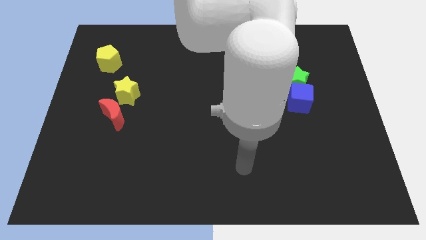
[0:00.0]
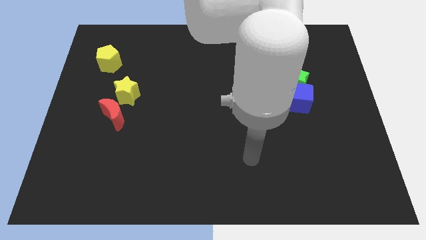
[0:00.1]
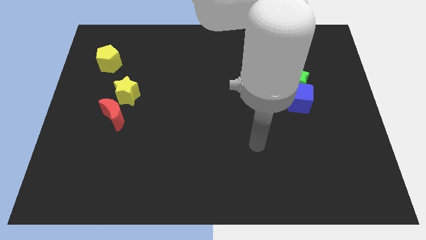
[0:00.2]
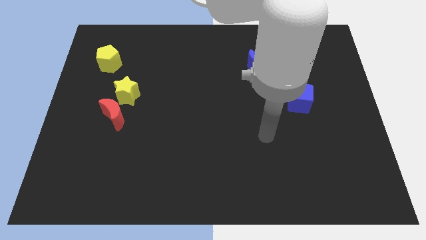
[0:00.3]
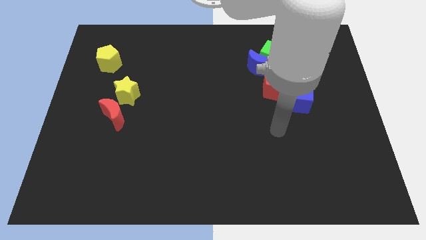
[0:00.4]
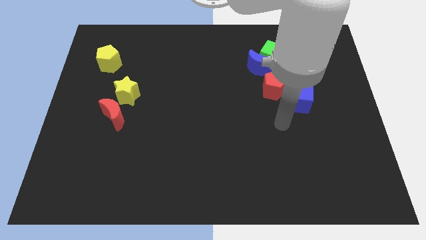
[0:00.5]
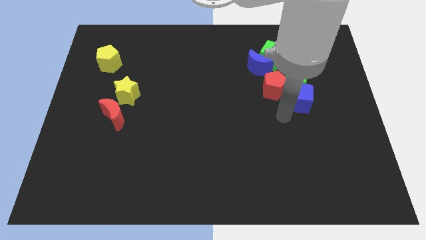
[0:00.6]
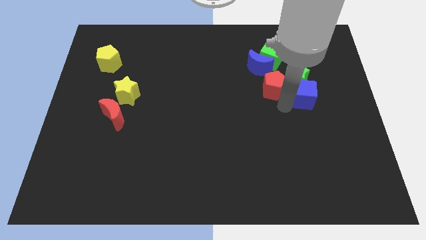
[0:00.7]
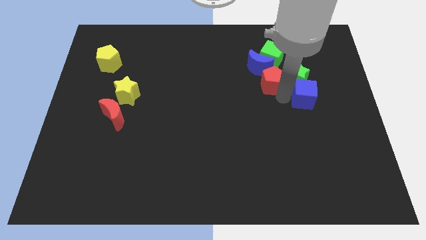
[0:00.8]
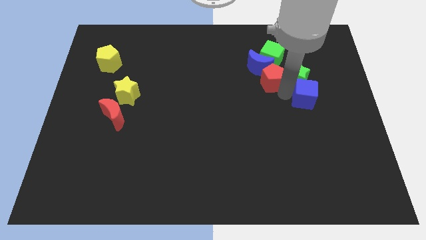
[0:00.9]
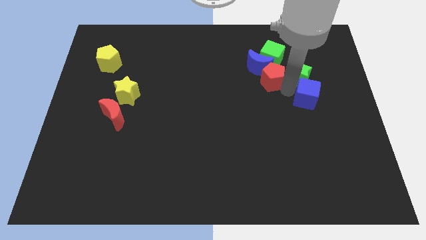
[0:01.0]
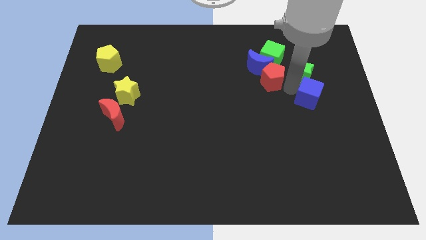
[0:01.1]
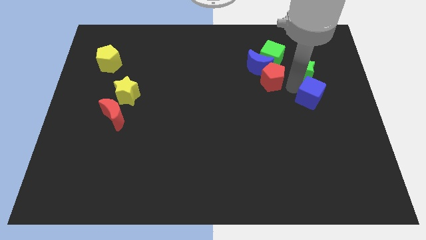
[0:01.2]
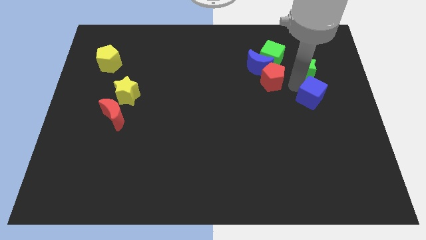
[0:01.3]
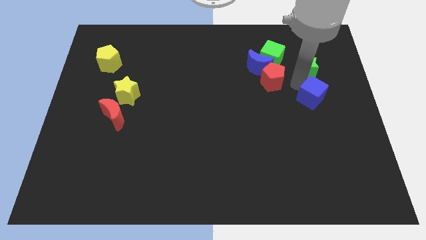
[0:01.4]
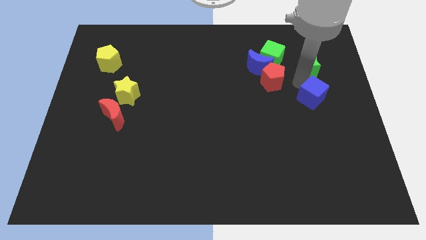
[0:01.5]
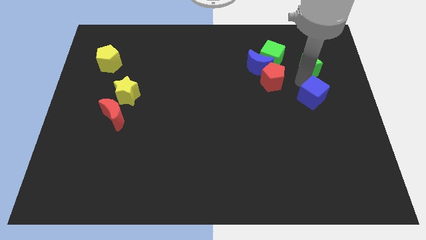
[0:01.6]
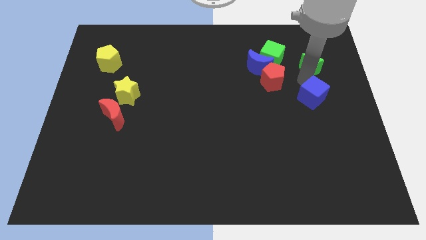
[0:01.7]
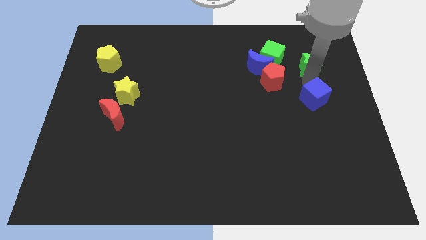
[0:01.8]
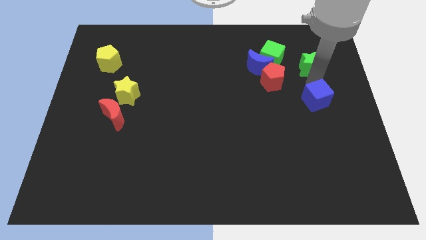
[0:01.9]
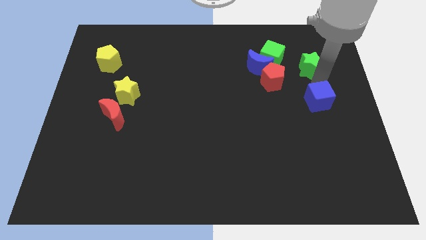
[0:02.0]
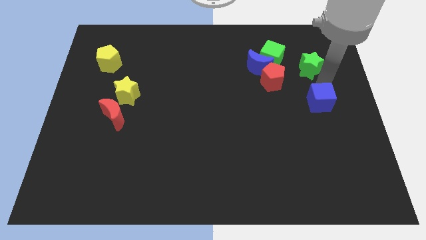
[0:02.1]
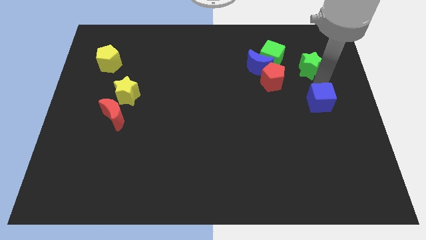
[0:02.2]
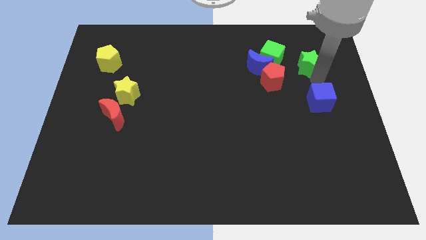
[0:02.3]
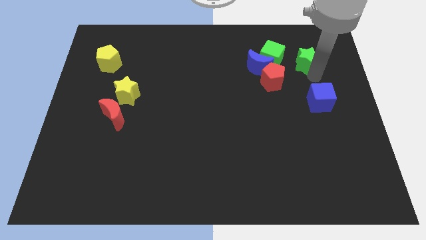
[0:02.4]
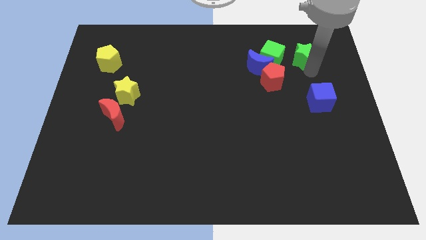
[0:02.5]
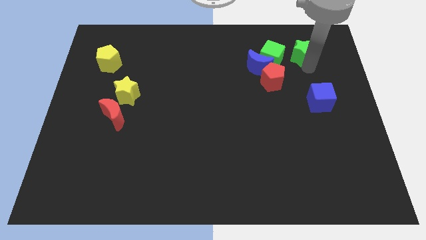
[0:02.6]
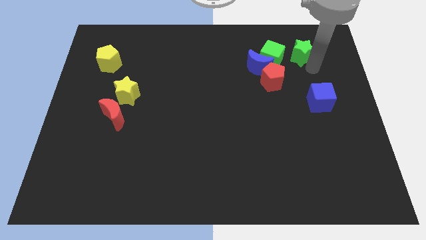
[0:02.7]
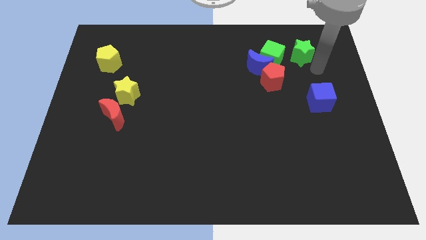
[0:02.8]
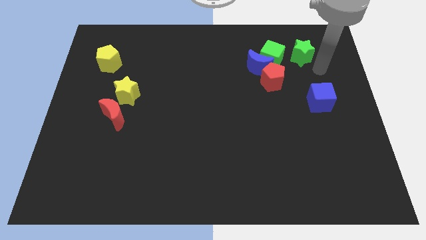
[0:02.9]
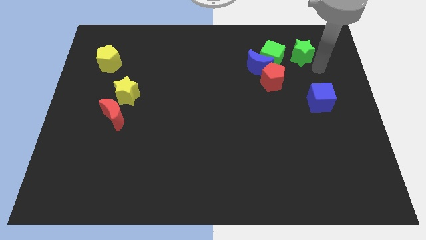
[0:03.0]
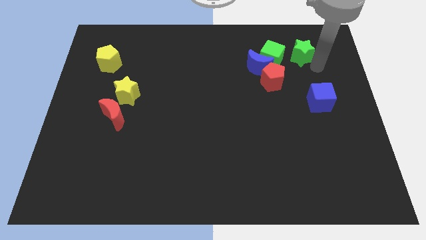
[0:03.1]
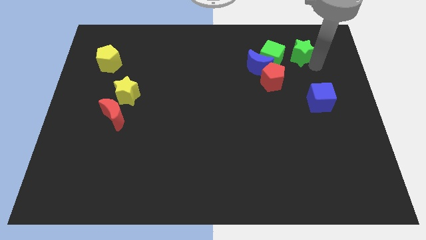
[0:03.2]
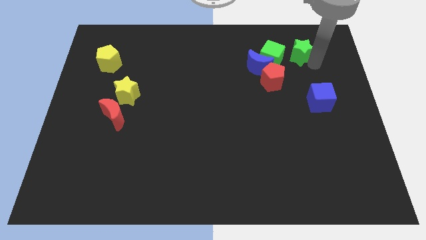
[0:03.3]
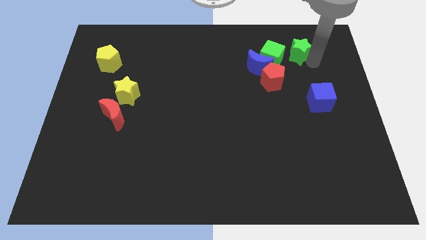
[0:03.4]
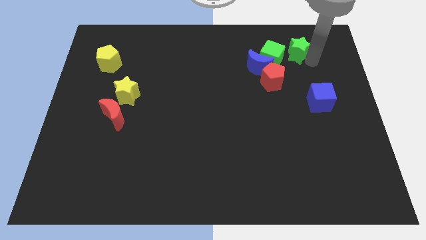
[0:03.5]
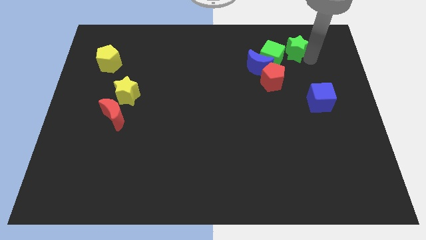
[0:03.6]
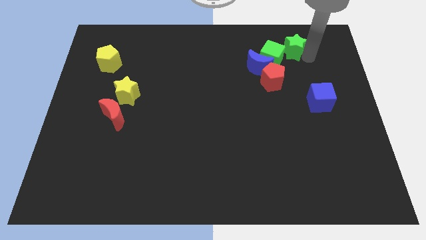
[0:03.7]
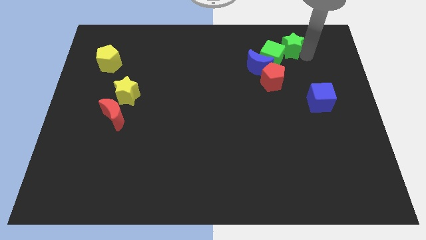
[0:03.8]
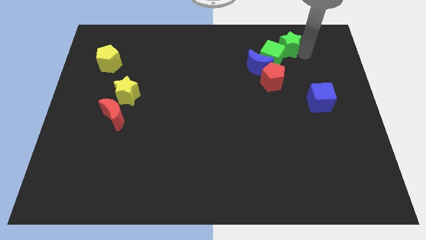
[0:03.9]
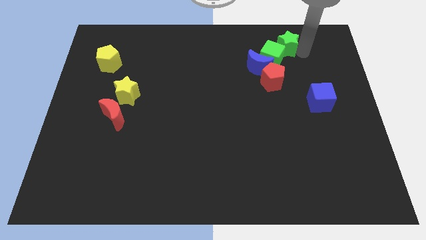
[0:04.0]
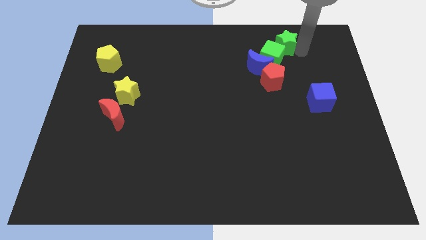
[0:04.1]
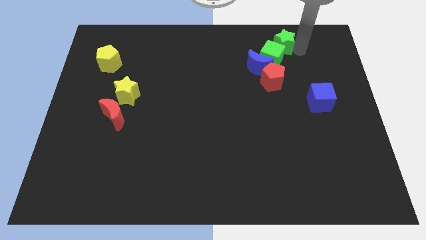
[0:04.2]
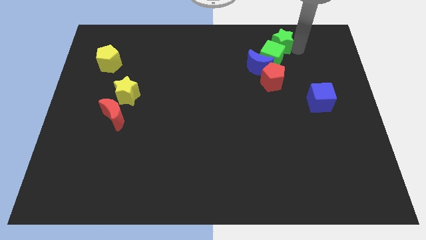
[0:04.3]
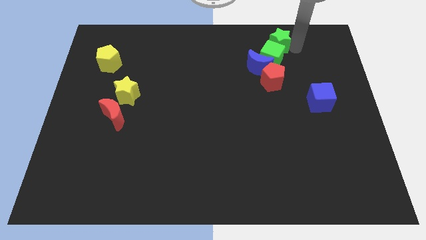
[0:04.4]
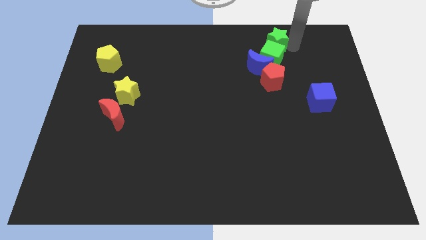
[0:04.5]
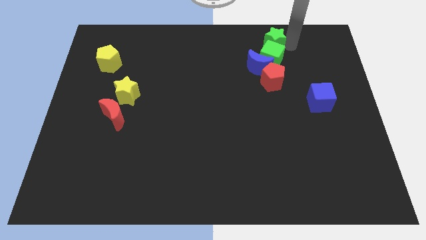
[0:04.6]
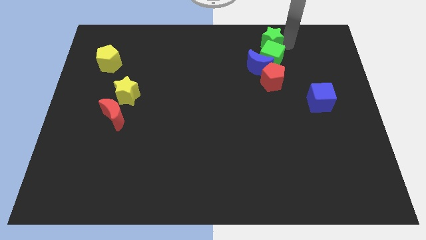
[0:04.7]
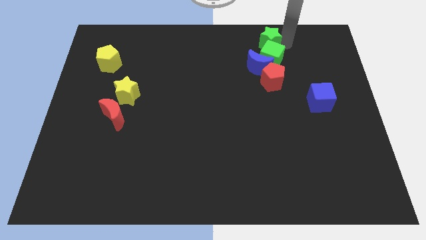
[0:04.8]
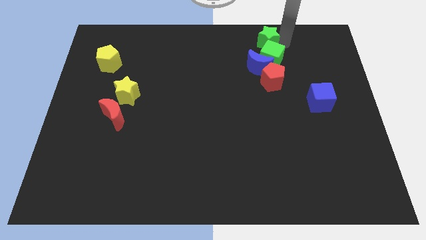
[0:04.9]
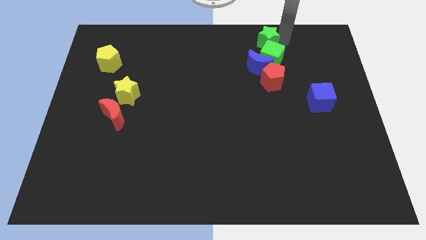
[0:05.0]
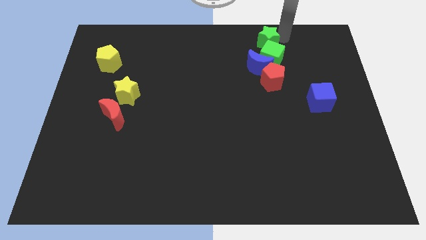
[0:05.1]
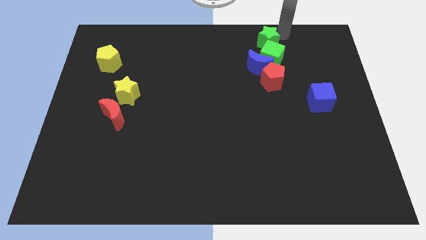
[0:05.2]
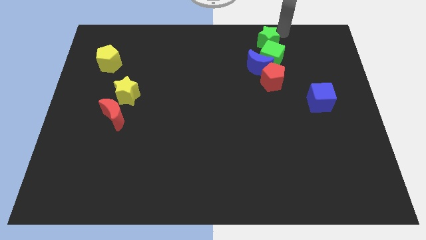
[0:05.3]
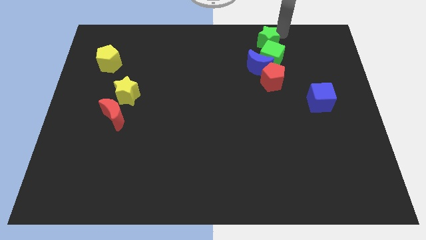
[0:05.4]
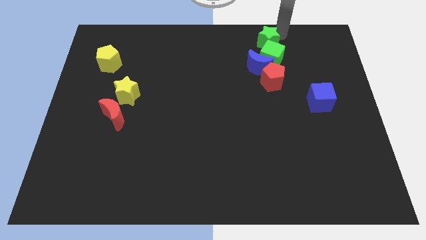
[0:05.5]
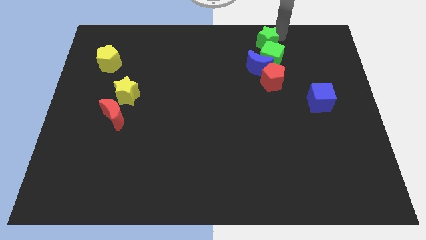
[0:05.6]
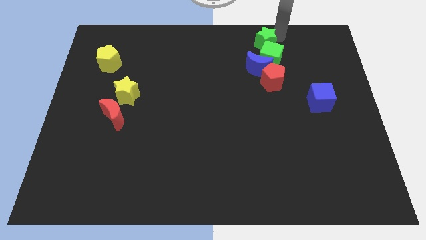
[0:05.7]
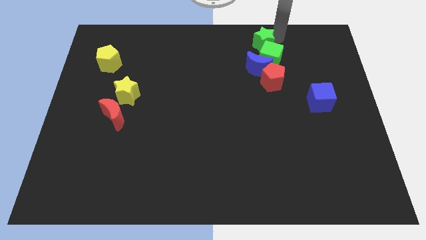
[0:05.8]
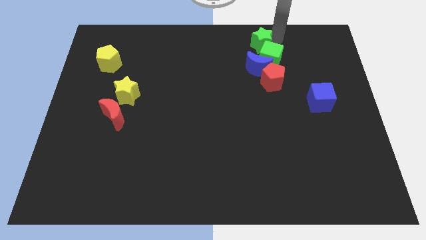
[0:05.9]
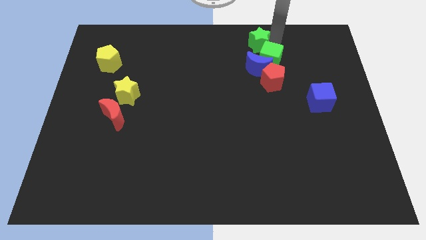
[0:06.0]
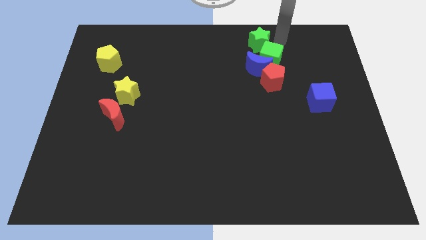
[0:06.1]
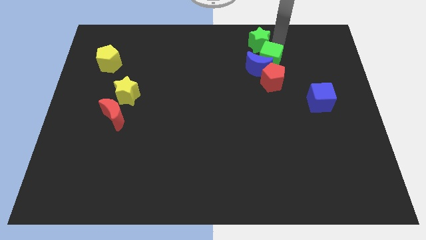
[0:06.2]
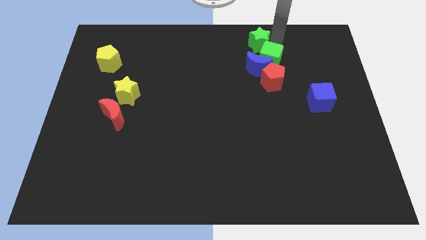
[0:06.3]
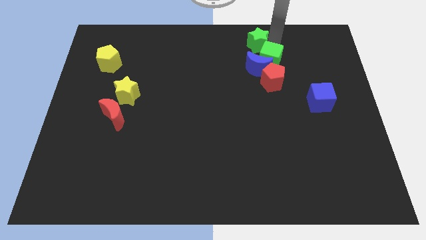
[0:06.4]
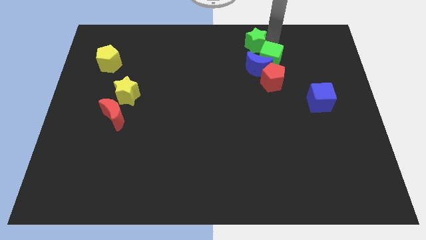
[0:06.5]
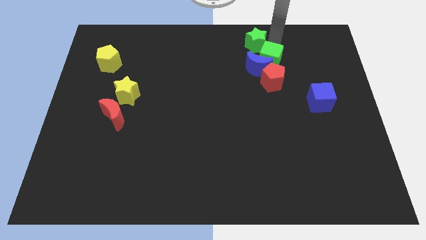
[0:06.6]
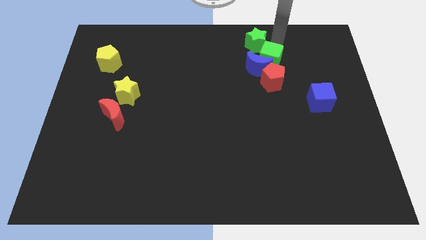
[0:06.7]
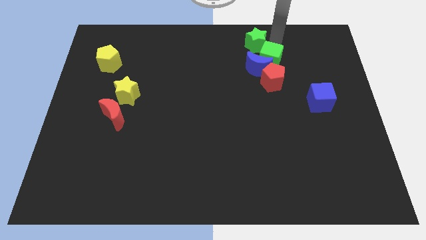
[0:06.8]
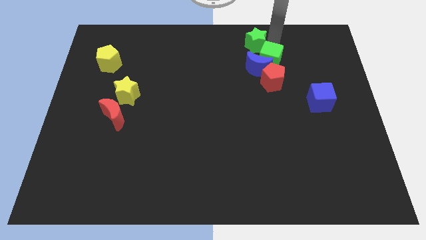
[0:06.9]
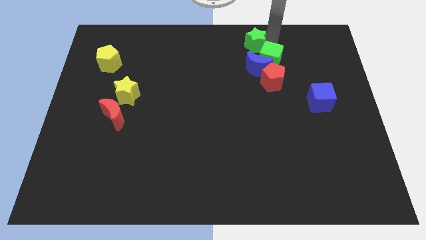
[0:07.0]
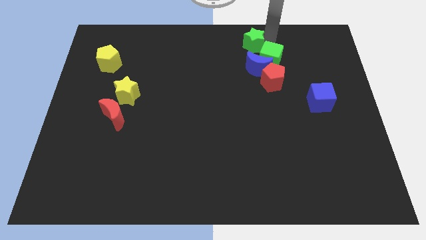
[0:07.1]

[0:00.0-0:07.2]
slide the green star to the top
